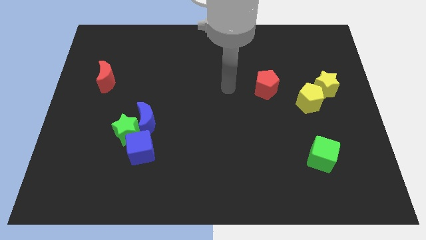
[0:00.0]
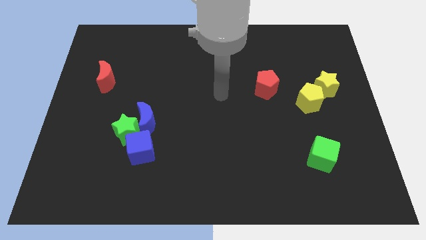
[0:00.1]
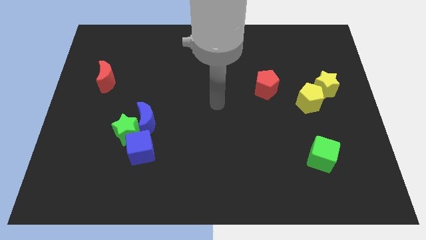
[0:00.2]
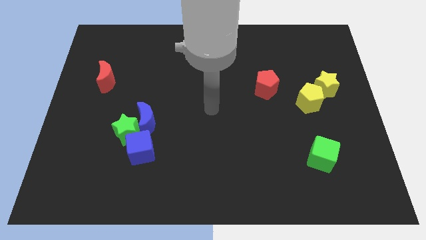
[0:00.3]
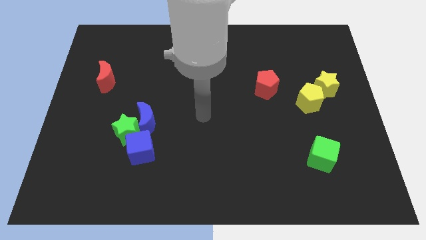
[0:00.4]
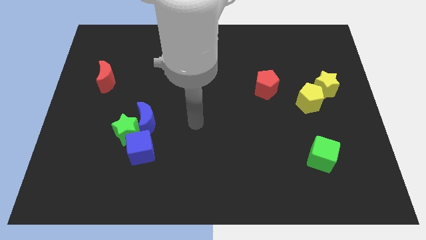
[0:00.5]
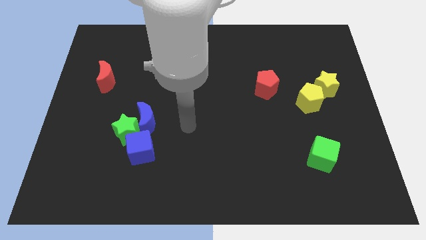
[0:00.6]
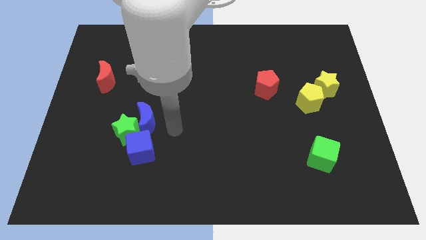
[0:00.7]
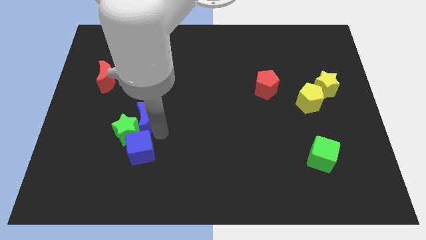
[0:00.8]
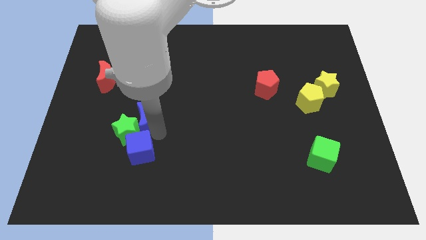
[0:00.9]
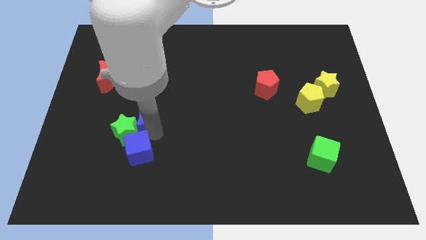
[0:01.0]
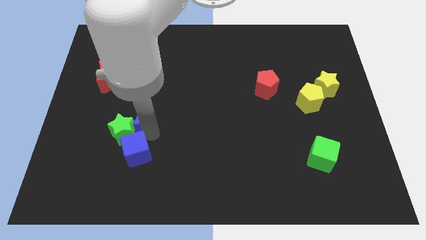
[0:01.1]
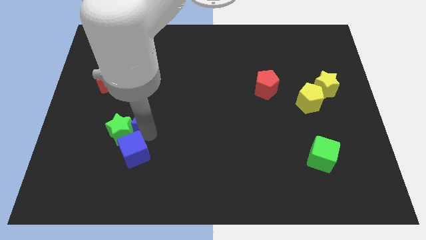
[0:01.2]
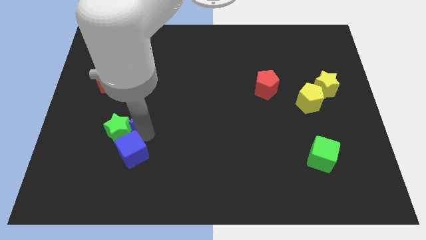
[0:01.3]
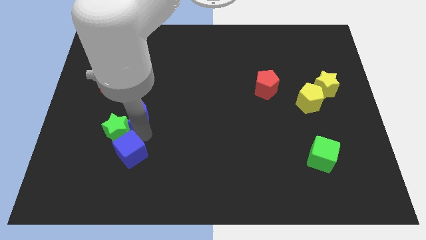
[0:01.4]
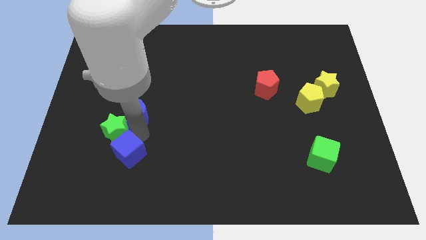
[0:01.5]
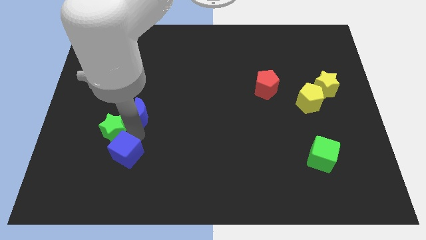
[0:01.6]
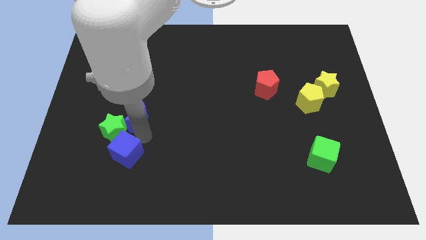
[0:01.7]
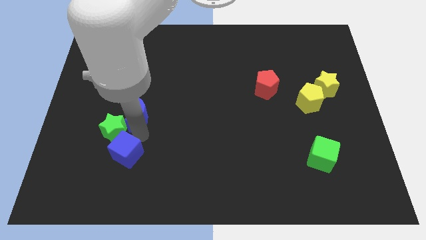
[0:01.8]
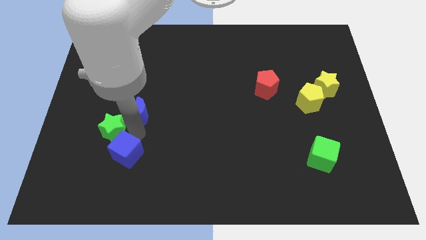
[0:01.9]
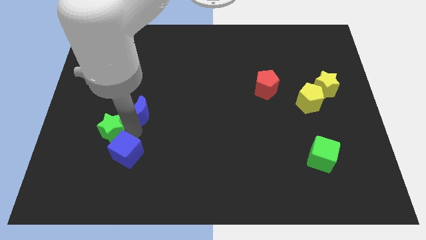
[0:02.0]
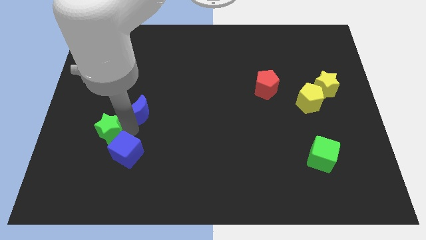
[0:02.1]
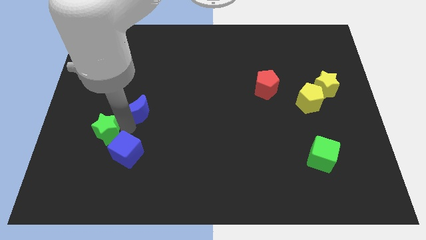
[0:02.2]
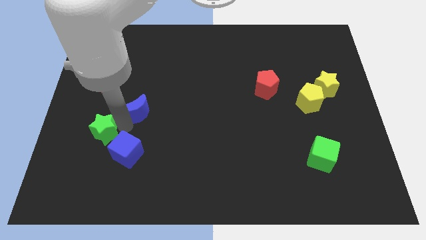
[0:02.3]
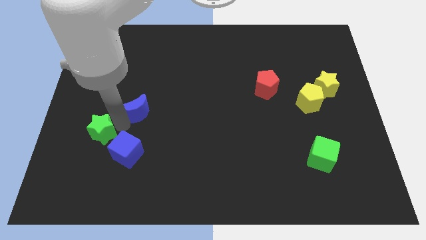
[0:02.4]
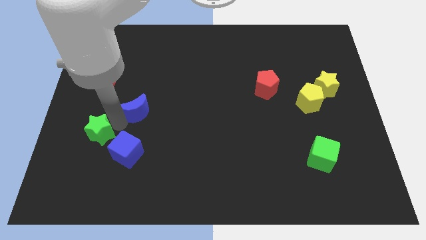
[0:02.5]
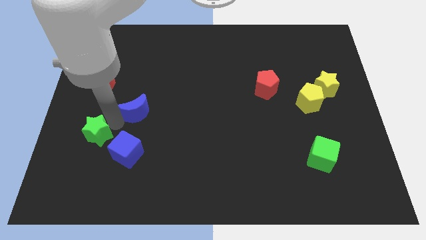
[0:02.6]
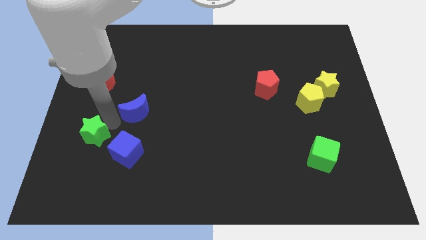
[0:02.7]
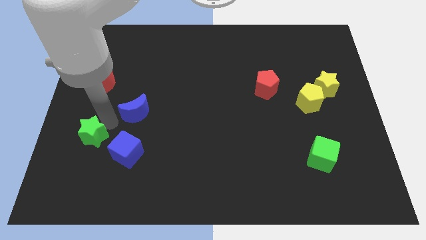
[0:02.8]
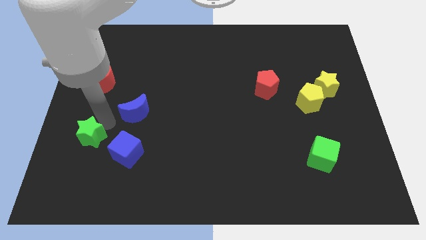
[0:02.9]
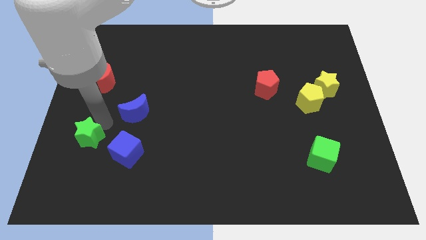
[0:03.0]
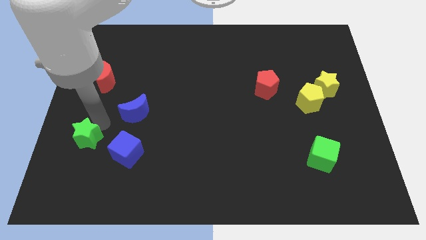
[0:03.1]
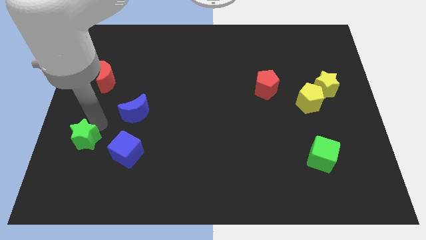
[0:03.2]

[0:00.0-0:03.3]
separate the green star from the blue moon and blue cube

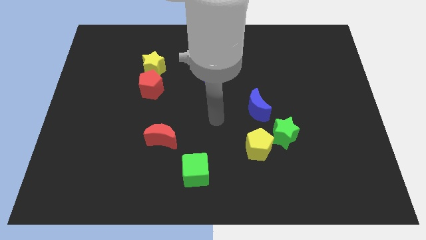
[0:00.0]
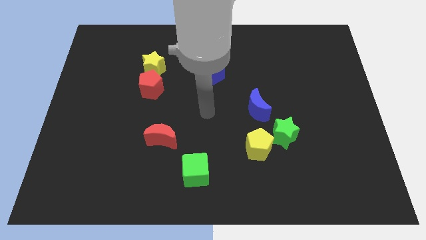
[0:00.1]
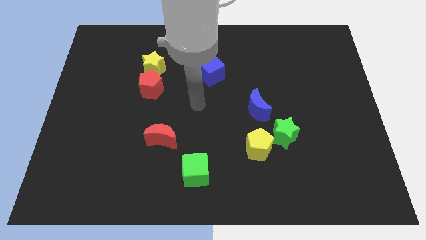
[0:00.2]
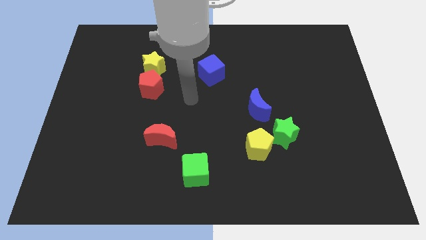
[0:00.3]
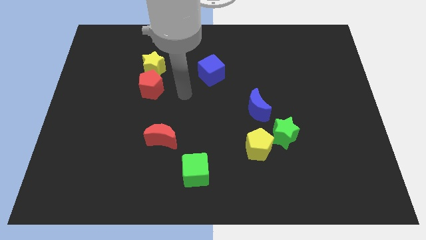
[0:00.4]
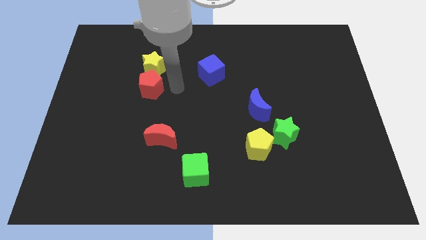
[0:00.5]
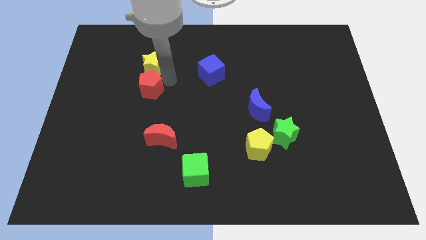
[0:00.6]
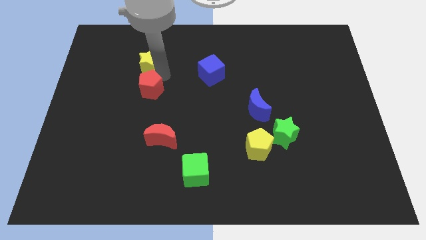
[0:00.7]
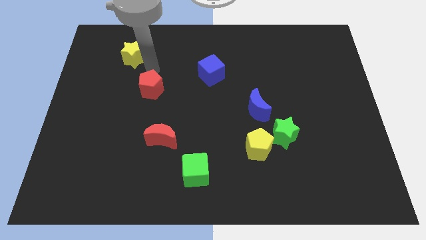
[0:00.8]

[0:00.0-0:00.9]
pull the red pentagon apart from the yellow star

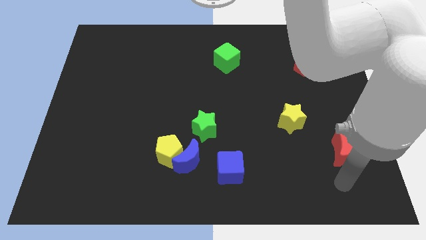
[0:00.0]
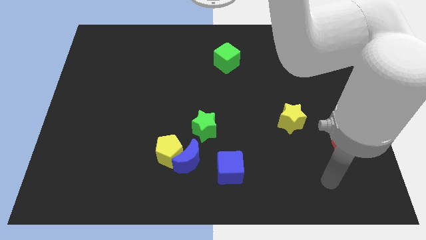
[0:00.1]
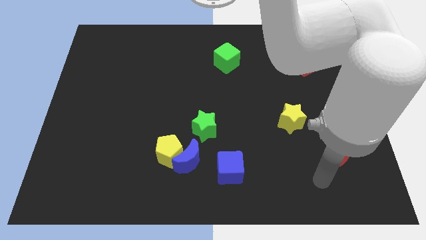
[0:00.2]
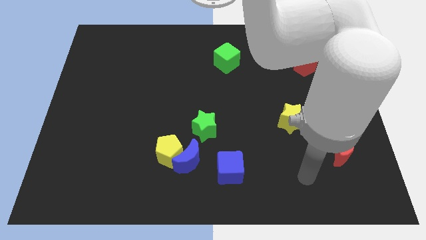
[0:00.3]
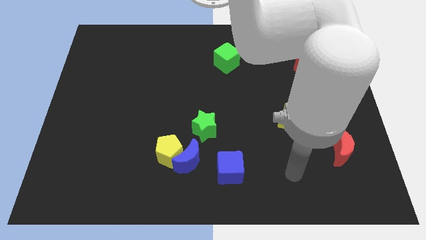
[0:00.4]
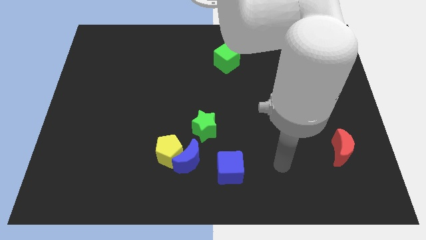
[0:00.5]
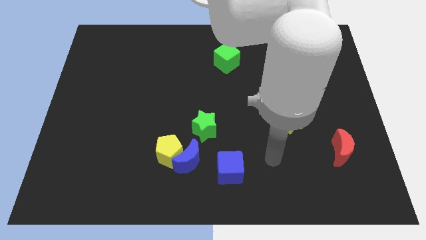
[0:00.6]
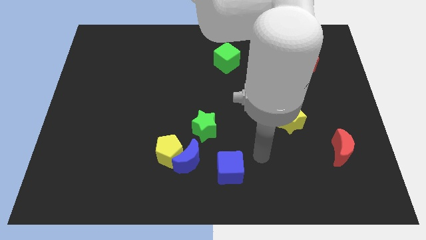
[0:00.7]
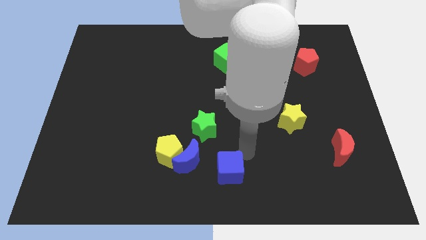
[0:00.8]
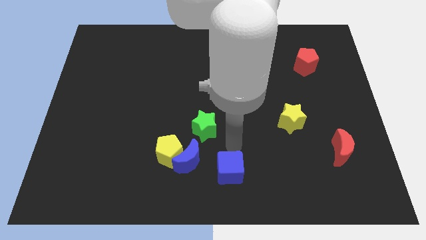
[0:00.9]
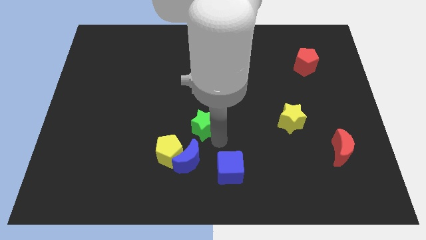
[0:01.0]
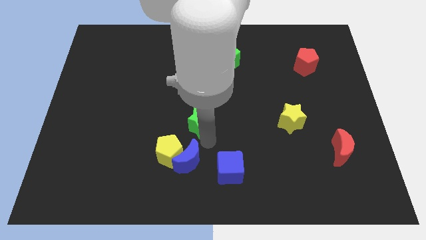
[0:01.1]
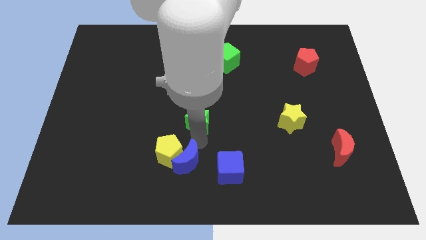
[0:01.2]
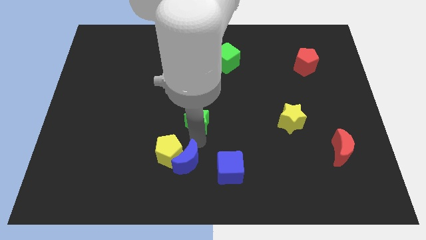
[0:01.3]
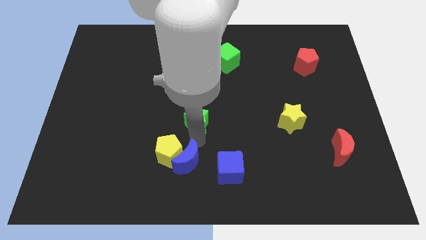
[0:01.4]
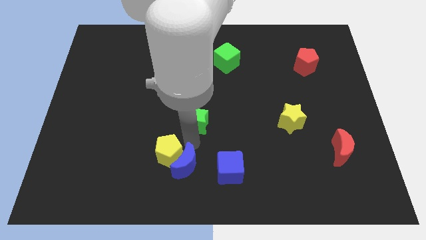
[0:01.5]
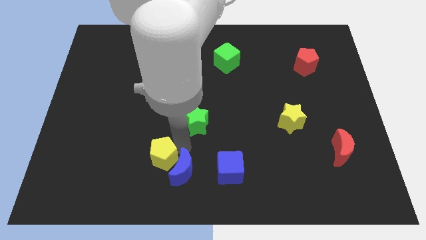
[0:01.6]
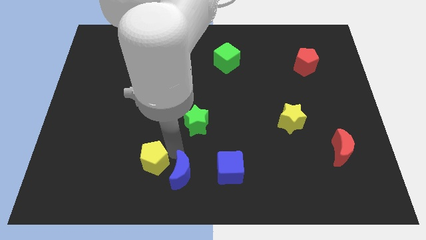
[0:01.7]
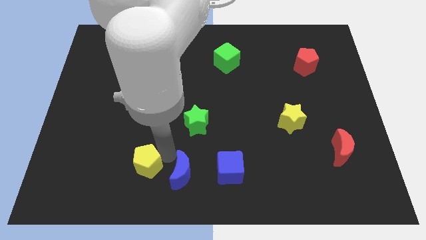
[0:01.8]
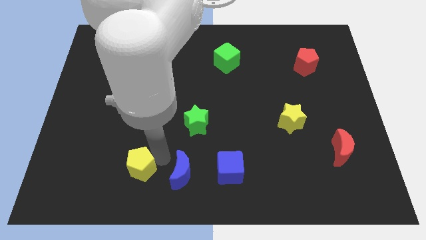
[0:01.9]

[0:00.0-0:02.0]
pull the yellow pentagon apart from the blue moon and green star

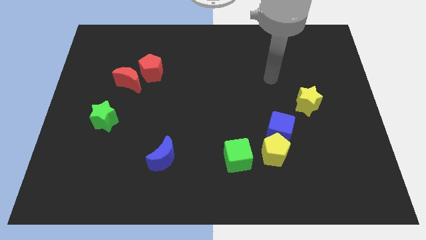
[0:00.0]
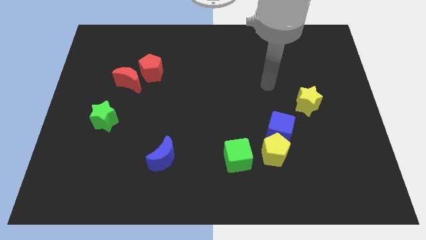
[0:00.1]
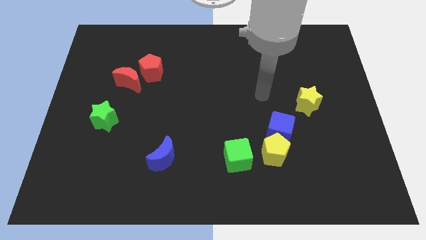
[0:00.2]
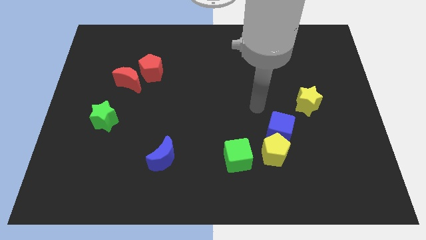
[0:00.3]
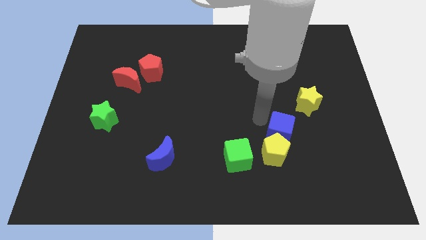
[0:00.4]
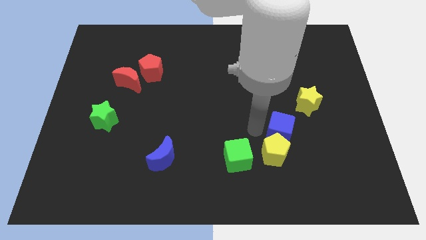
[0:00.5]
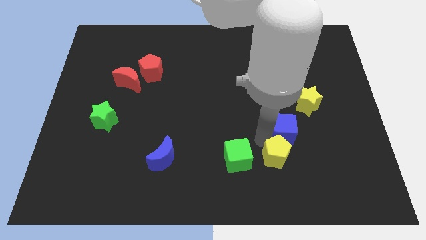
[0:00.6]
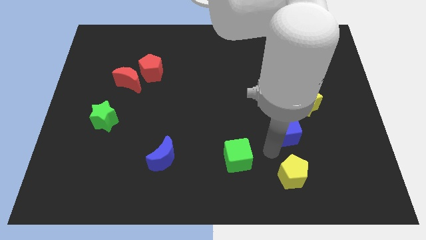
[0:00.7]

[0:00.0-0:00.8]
pull the blue cube apart from the yellow pentagon

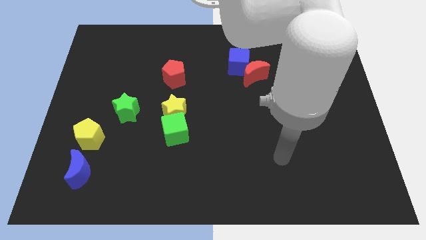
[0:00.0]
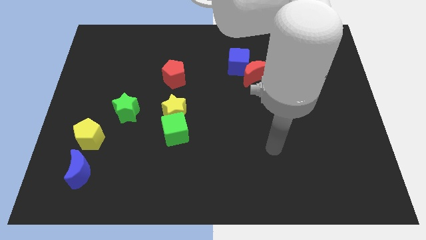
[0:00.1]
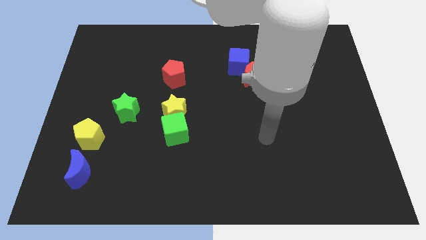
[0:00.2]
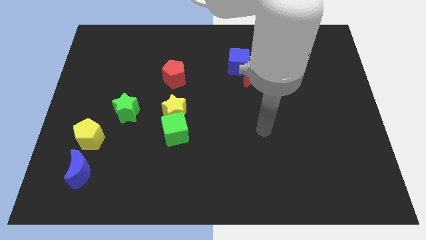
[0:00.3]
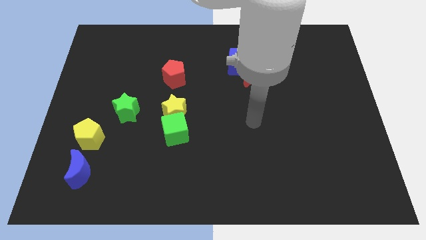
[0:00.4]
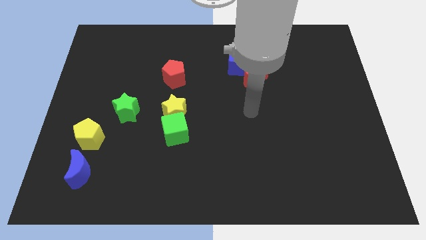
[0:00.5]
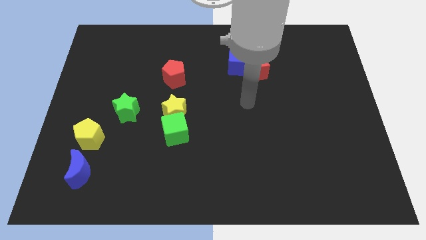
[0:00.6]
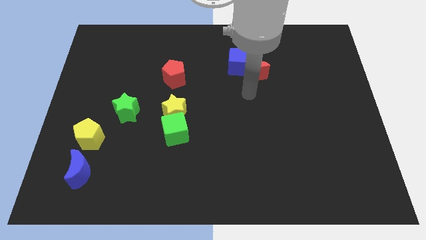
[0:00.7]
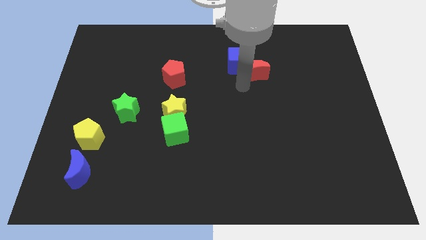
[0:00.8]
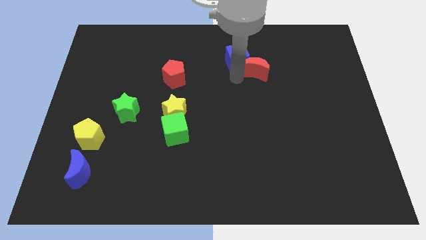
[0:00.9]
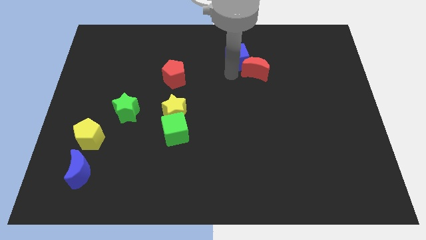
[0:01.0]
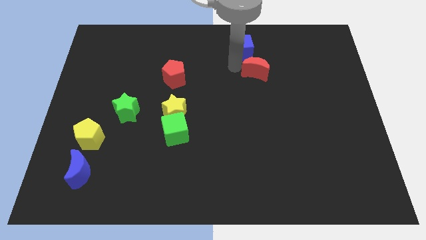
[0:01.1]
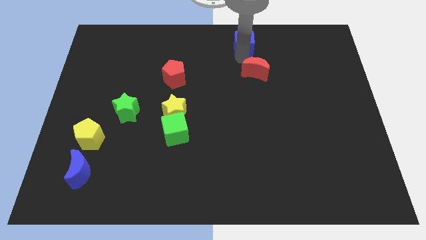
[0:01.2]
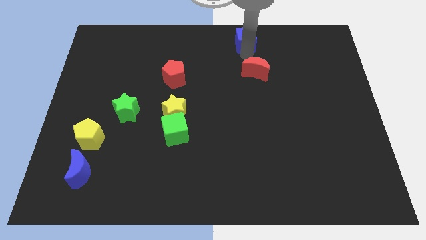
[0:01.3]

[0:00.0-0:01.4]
separate the red moon from the blue cube

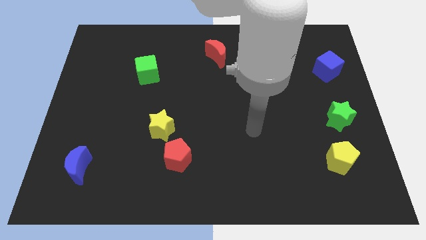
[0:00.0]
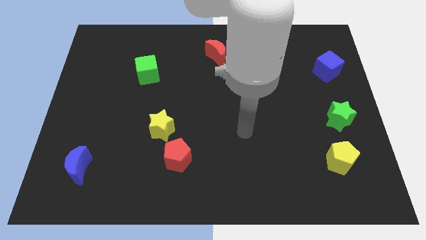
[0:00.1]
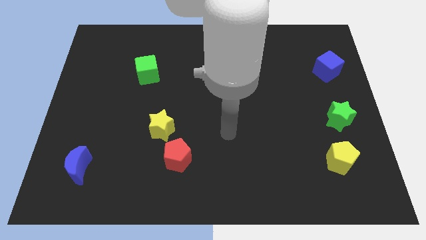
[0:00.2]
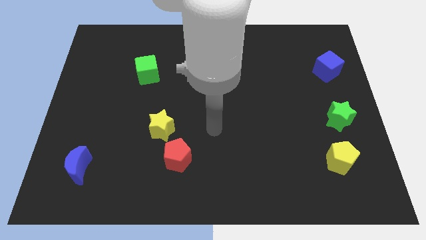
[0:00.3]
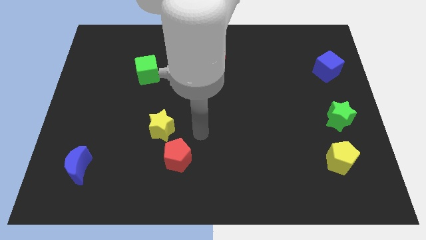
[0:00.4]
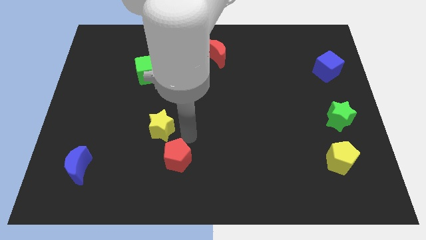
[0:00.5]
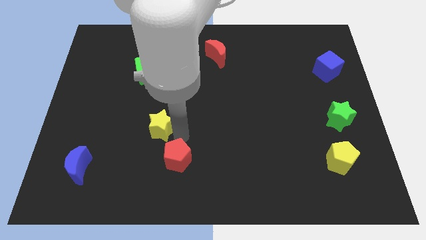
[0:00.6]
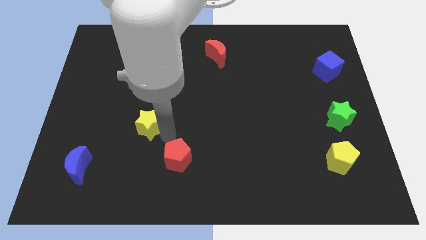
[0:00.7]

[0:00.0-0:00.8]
move the red pentagon away from the yellow star
